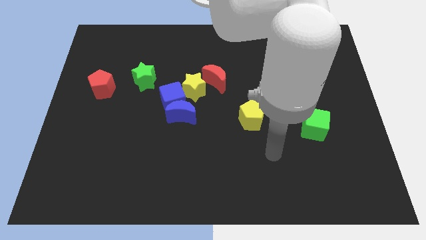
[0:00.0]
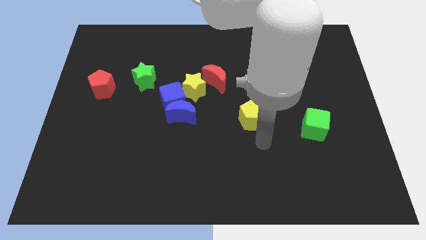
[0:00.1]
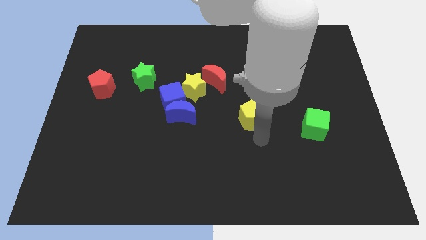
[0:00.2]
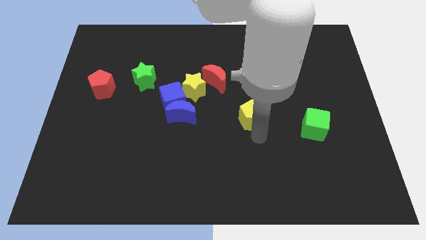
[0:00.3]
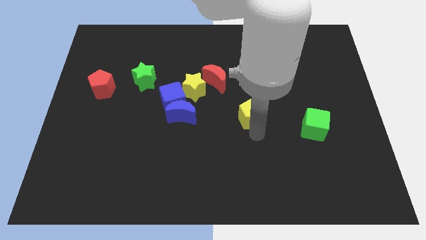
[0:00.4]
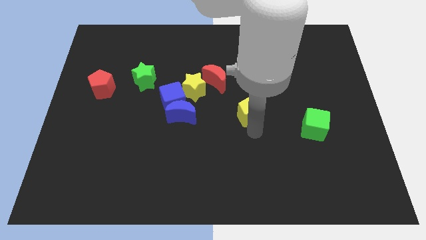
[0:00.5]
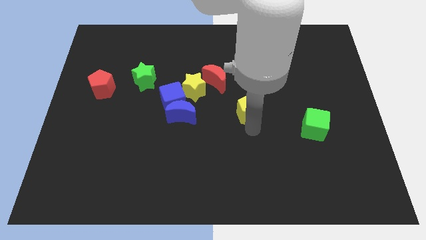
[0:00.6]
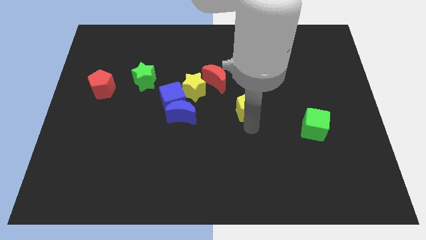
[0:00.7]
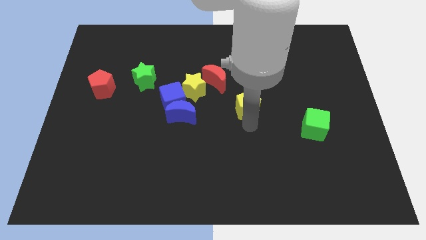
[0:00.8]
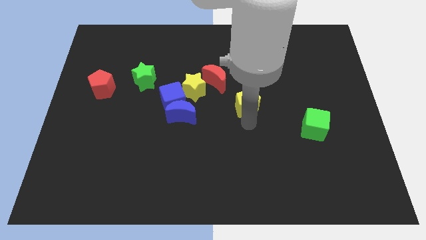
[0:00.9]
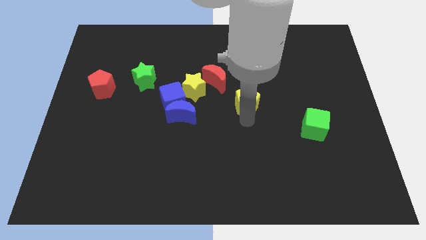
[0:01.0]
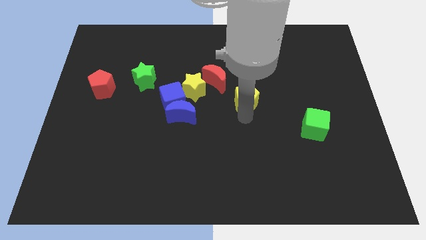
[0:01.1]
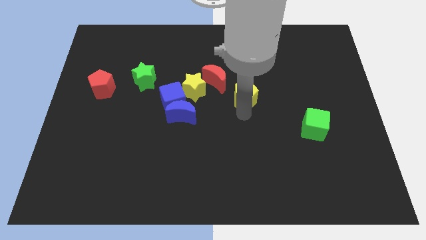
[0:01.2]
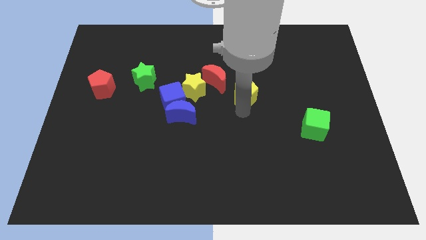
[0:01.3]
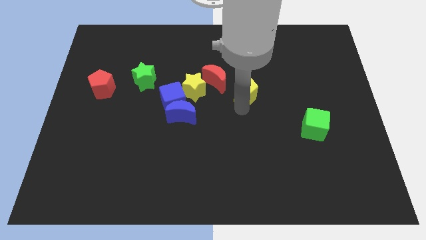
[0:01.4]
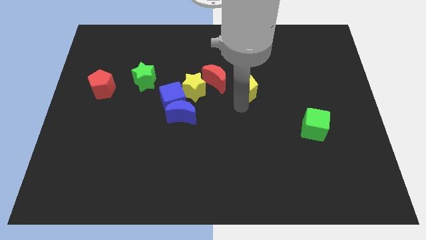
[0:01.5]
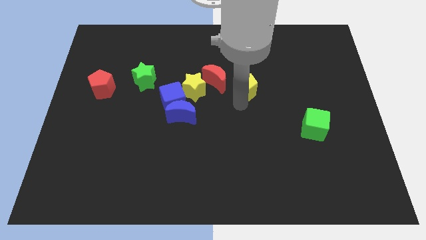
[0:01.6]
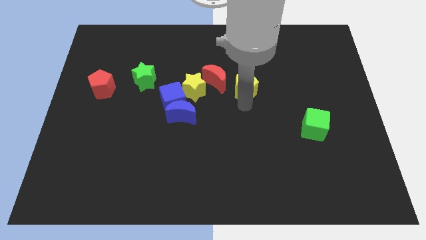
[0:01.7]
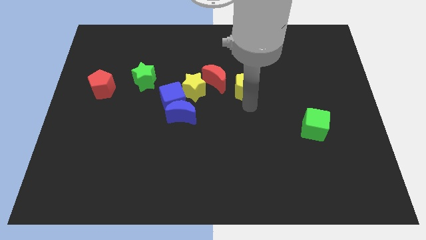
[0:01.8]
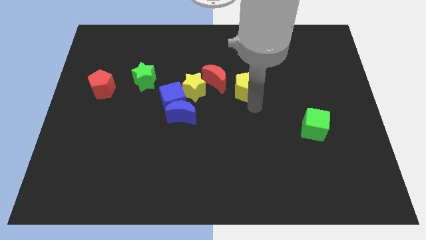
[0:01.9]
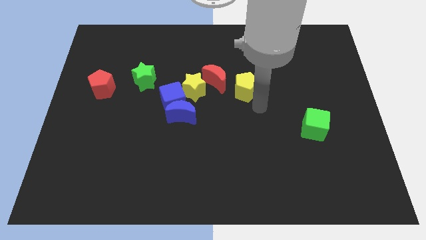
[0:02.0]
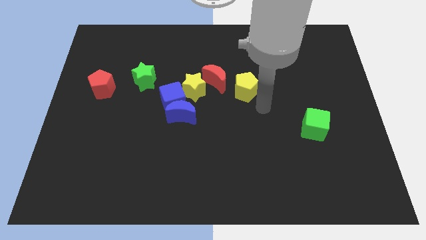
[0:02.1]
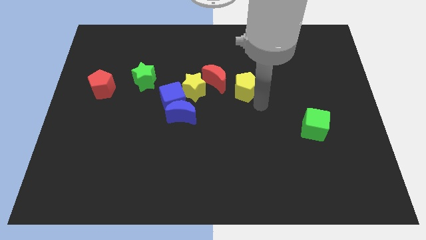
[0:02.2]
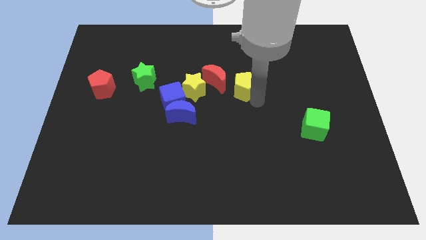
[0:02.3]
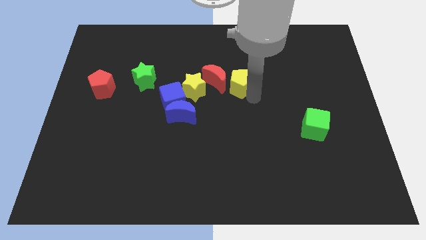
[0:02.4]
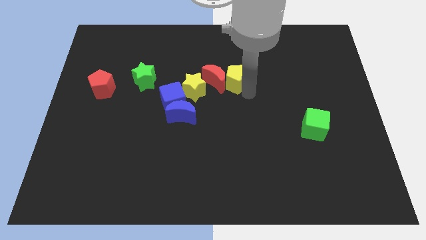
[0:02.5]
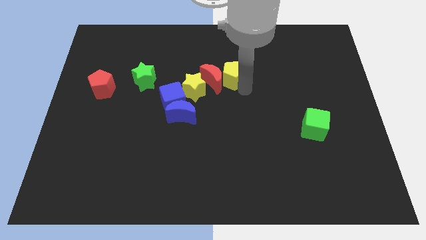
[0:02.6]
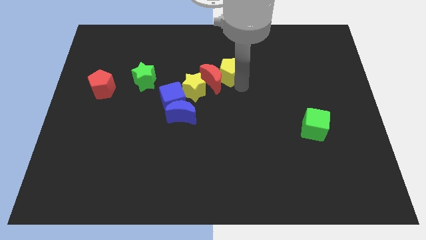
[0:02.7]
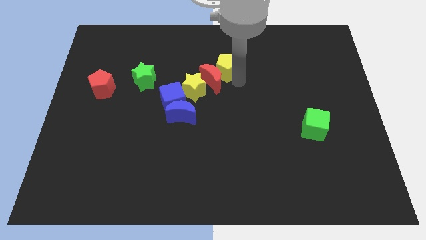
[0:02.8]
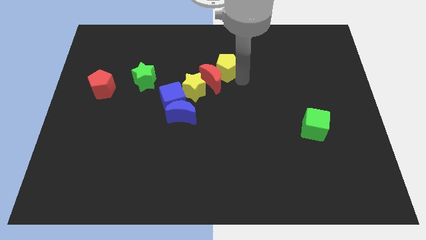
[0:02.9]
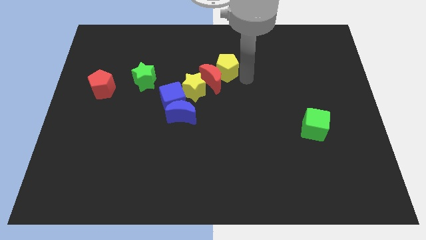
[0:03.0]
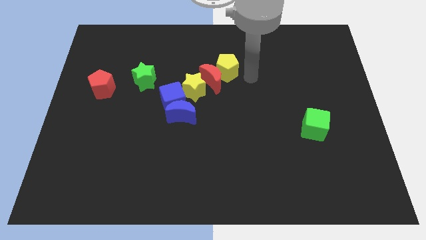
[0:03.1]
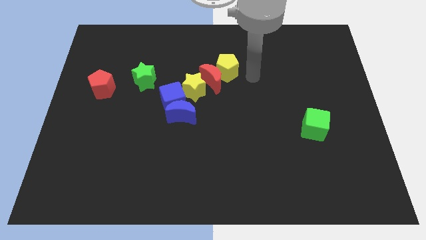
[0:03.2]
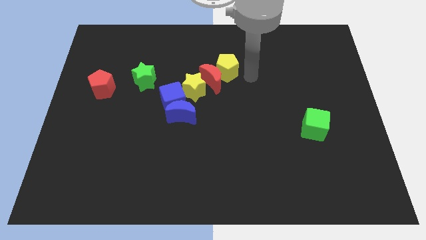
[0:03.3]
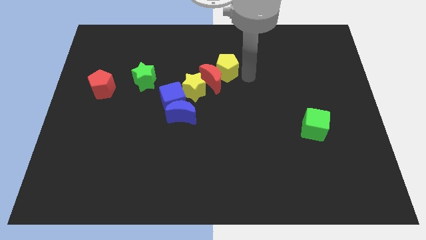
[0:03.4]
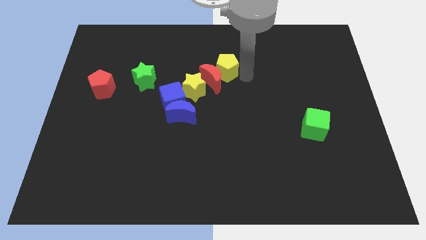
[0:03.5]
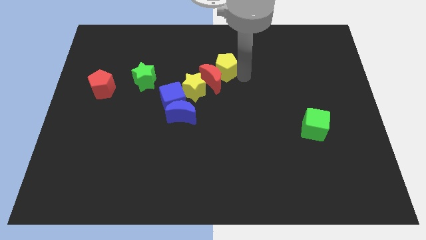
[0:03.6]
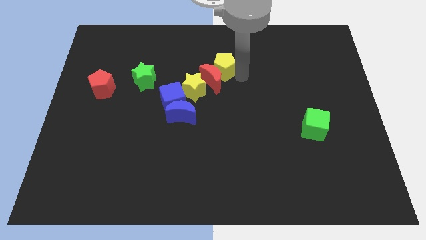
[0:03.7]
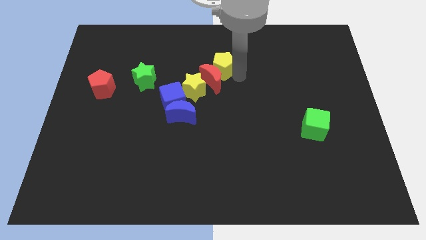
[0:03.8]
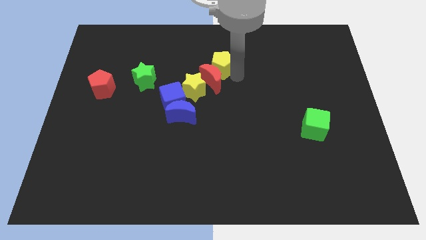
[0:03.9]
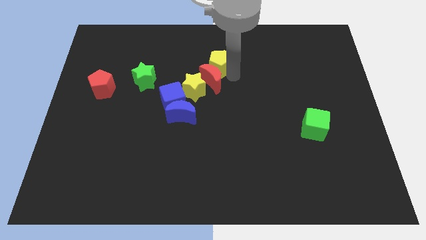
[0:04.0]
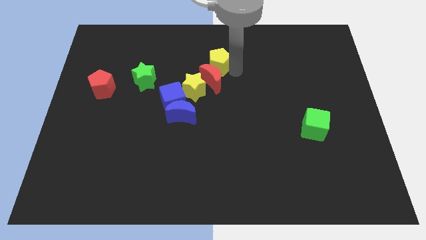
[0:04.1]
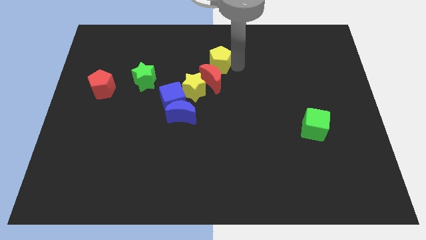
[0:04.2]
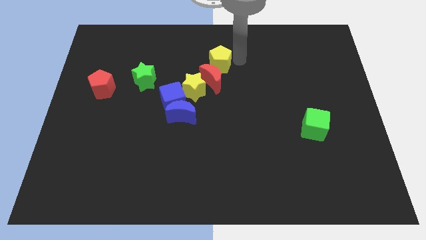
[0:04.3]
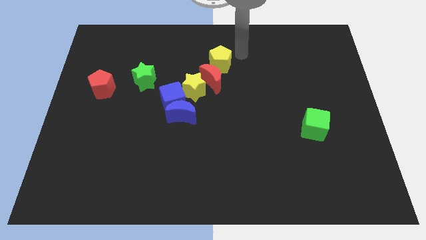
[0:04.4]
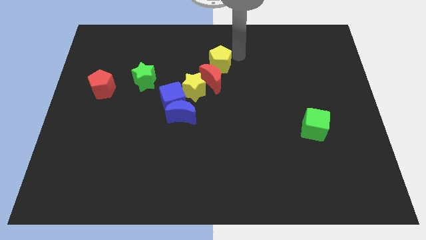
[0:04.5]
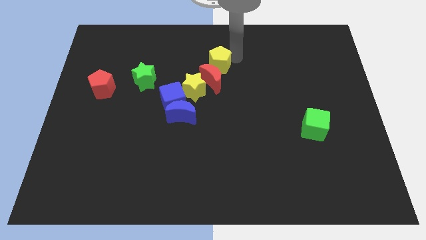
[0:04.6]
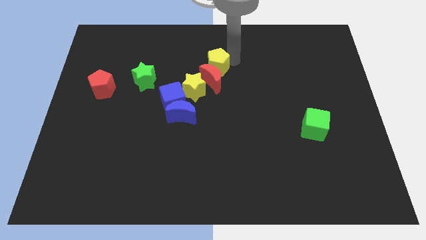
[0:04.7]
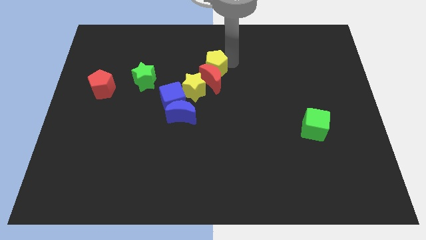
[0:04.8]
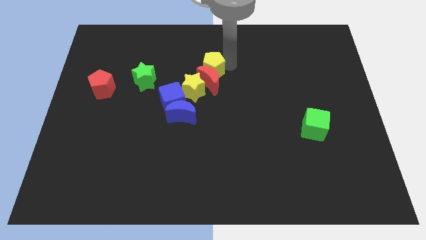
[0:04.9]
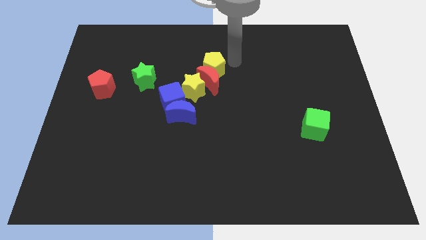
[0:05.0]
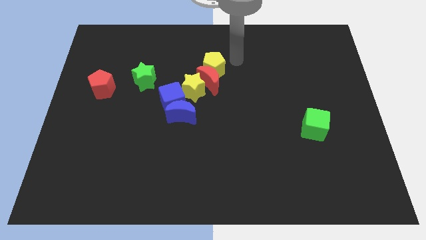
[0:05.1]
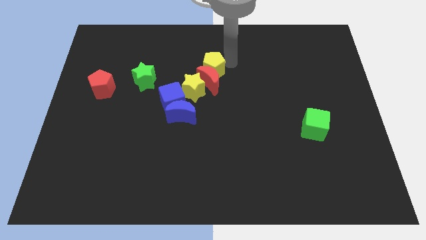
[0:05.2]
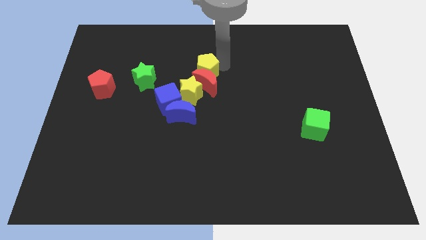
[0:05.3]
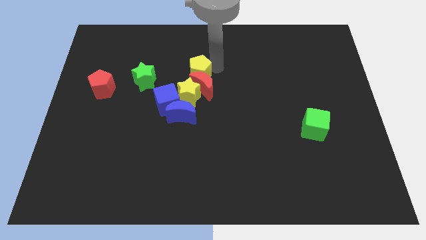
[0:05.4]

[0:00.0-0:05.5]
put the yellow pentagon right of the green star

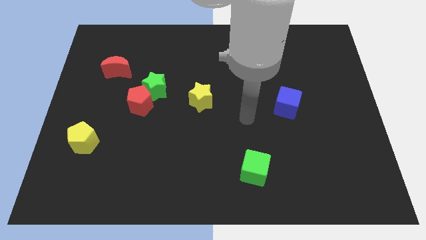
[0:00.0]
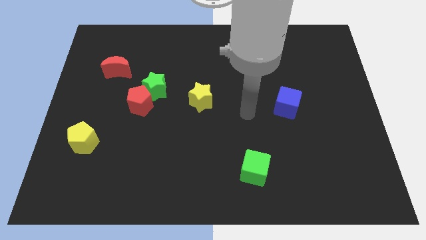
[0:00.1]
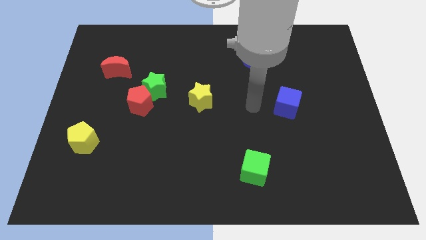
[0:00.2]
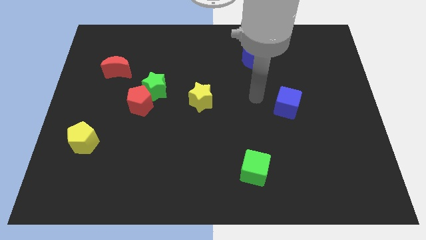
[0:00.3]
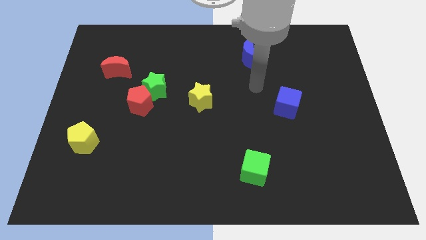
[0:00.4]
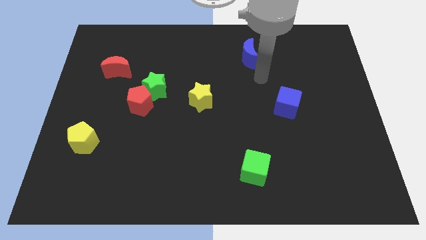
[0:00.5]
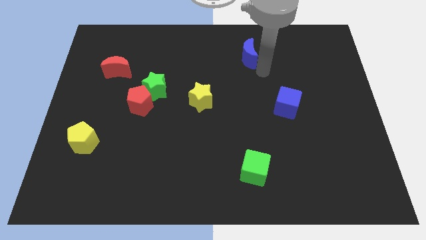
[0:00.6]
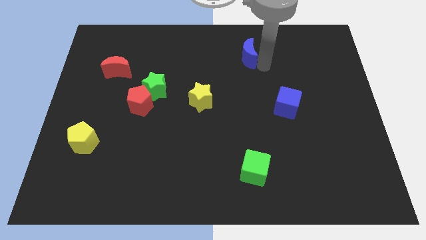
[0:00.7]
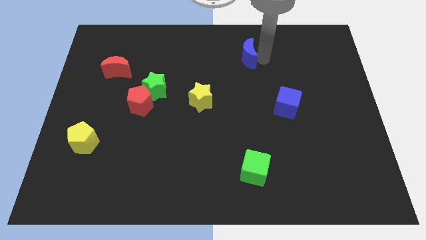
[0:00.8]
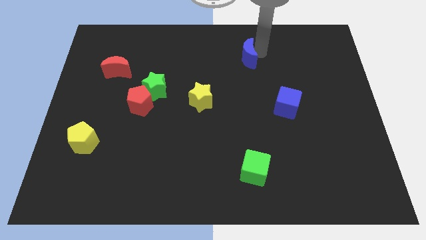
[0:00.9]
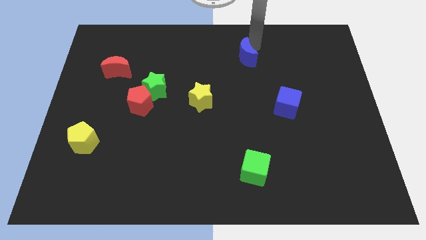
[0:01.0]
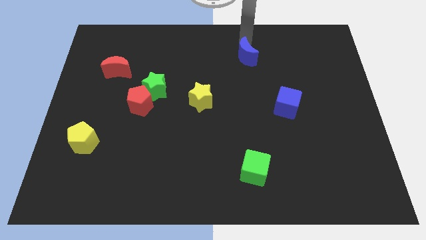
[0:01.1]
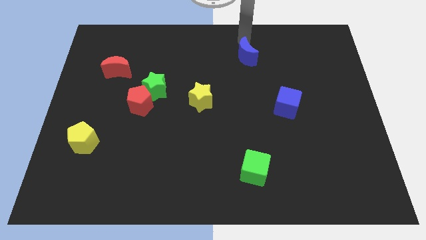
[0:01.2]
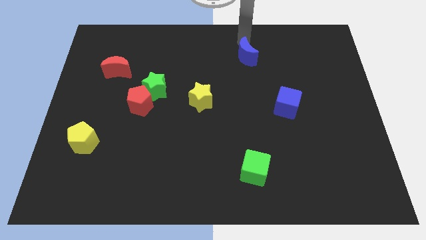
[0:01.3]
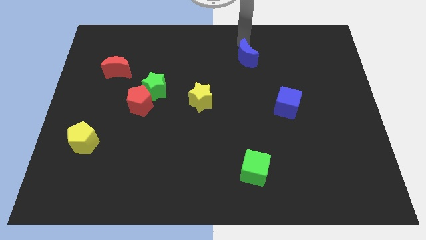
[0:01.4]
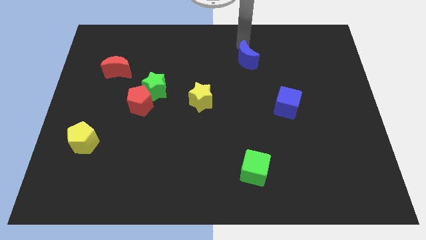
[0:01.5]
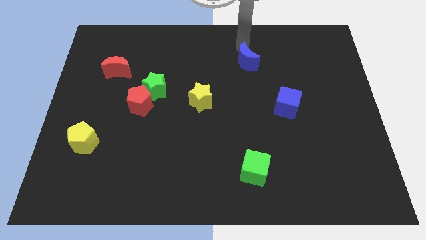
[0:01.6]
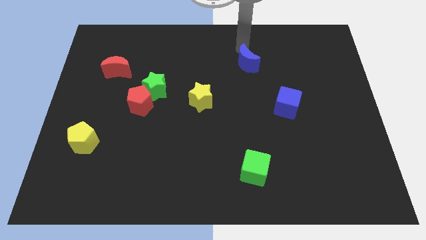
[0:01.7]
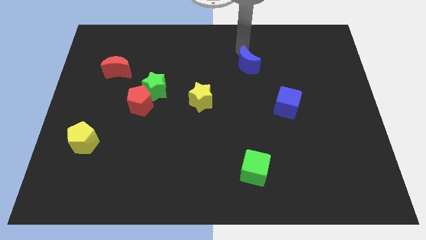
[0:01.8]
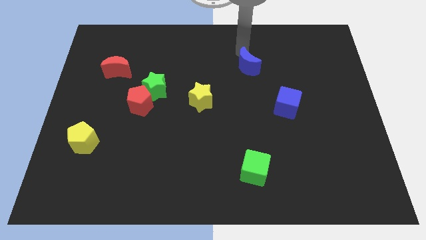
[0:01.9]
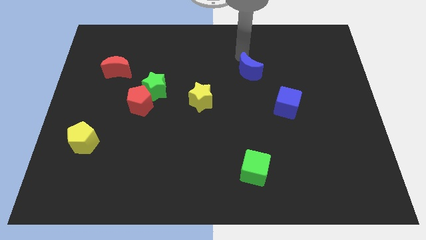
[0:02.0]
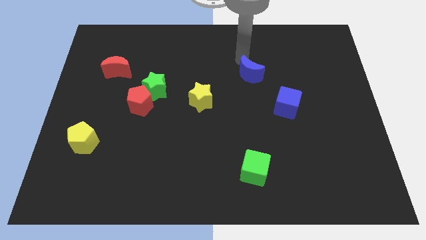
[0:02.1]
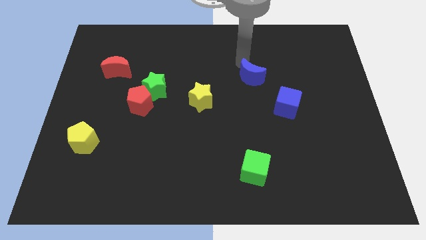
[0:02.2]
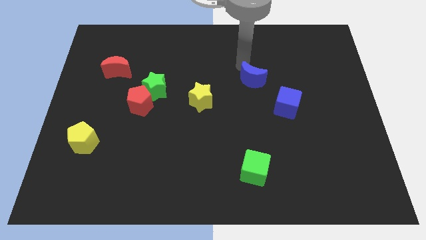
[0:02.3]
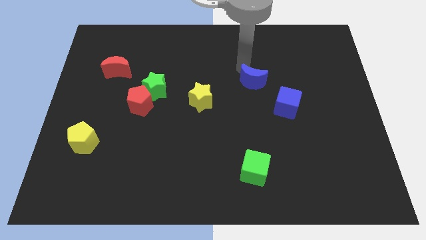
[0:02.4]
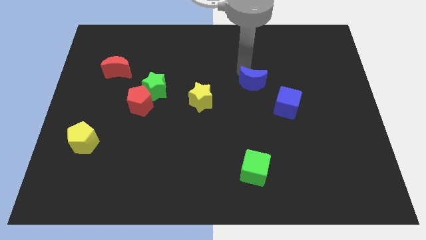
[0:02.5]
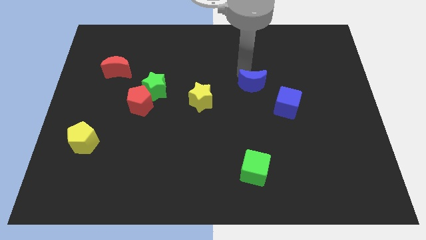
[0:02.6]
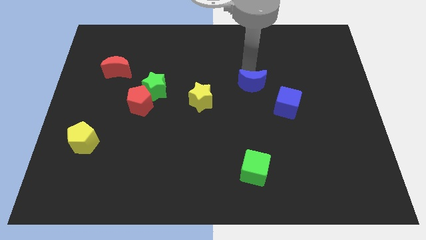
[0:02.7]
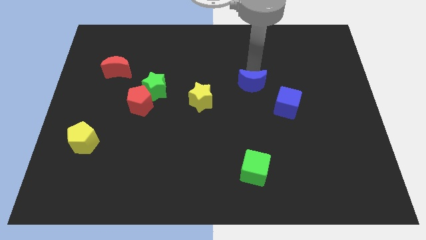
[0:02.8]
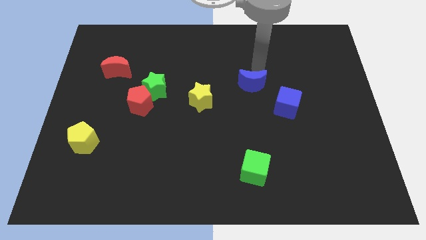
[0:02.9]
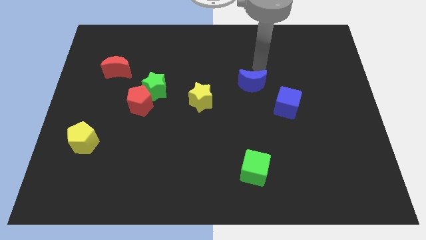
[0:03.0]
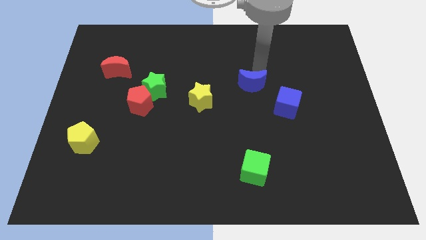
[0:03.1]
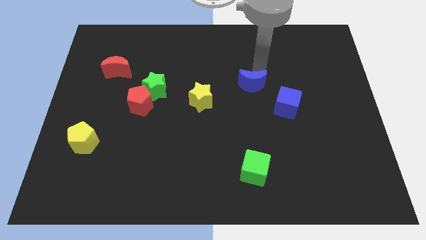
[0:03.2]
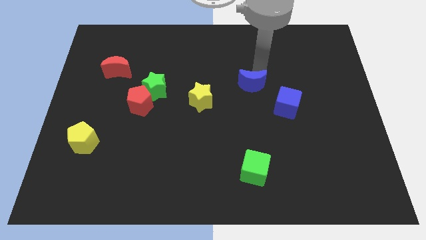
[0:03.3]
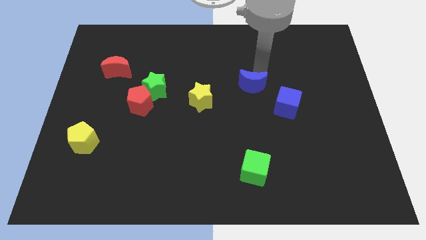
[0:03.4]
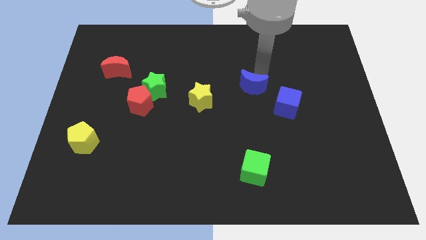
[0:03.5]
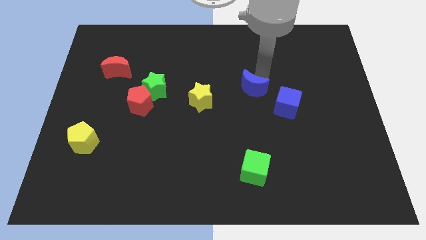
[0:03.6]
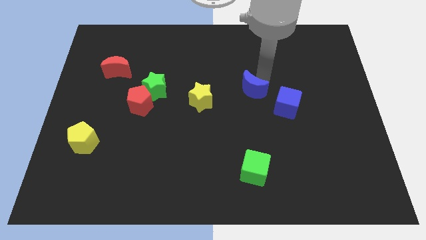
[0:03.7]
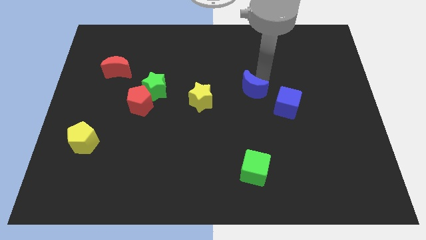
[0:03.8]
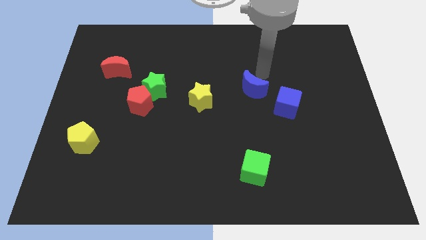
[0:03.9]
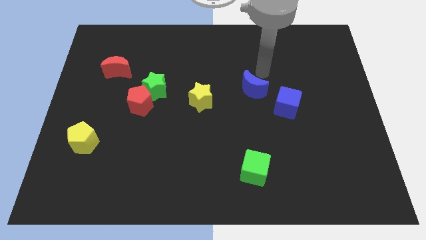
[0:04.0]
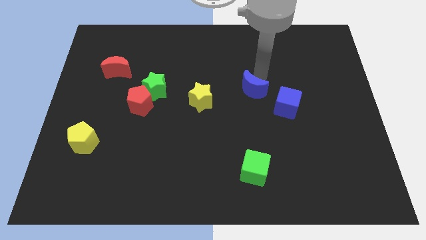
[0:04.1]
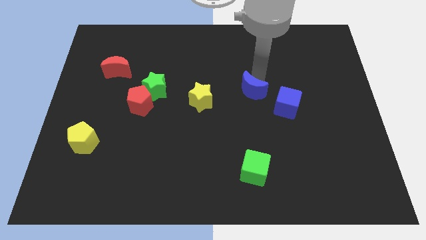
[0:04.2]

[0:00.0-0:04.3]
move the blue moon just left of the blue cube
